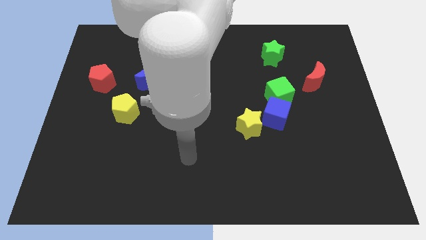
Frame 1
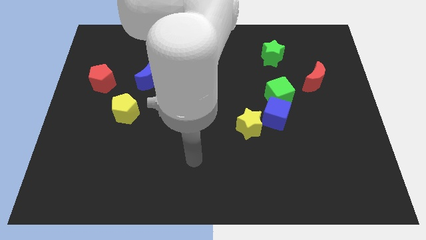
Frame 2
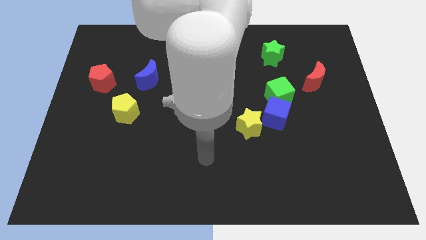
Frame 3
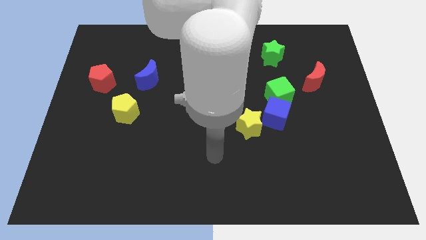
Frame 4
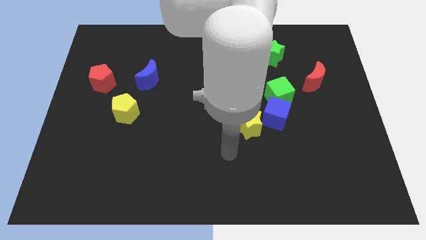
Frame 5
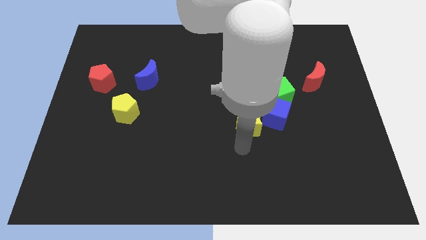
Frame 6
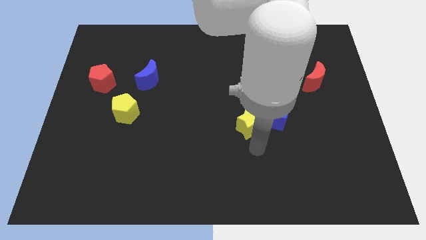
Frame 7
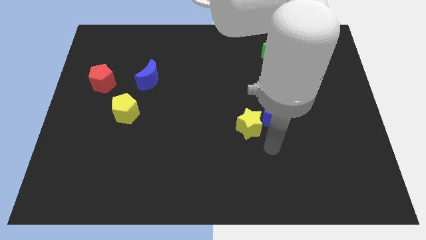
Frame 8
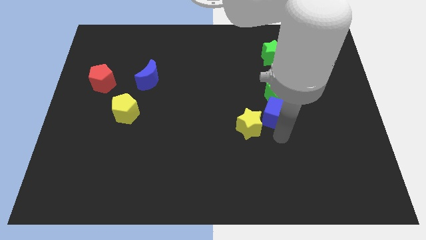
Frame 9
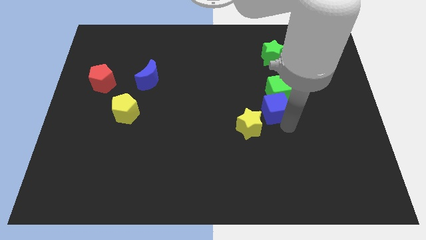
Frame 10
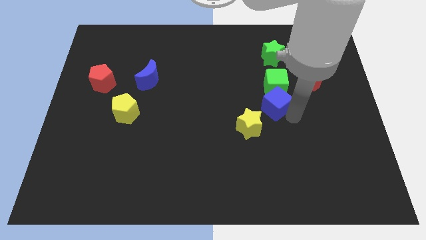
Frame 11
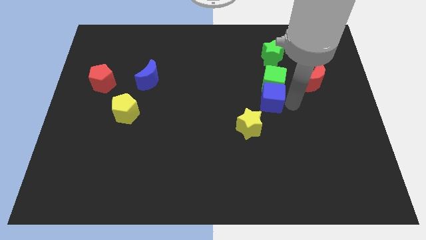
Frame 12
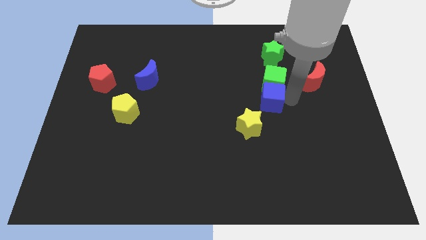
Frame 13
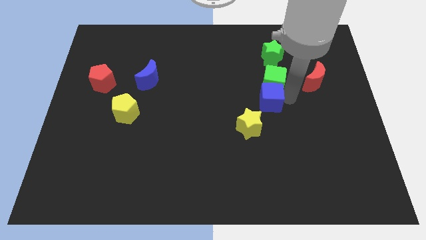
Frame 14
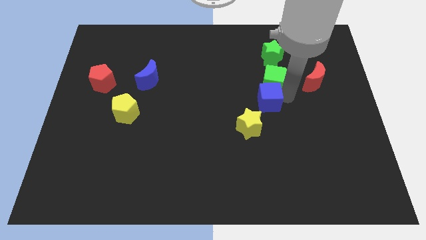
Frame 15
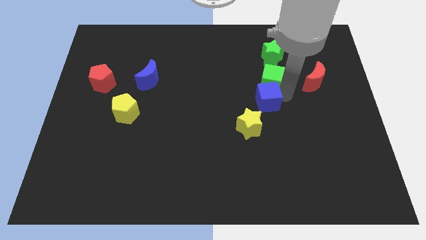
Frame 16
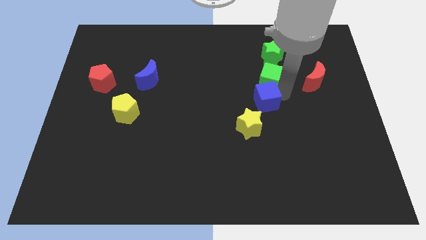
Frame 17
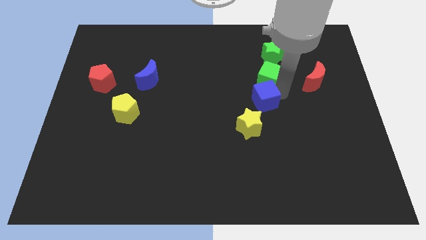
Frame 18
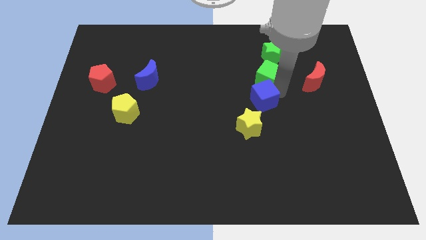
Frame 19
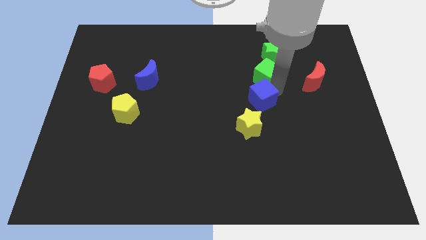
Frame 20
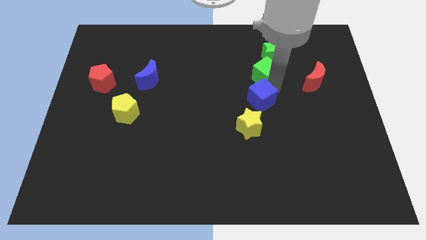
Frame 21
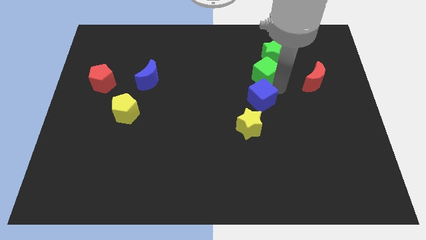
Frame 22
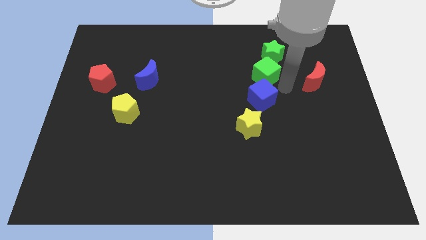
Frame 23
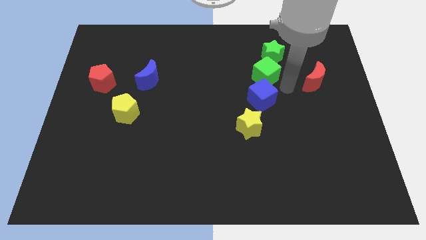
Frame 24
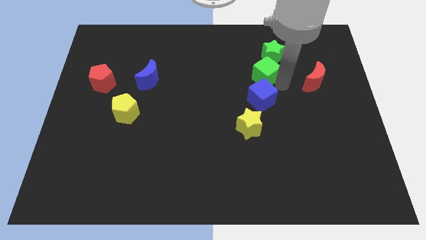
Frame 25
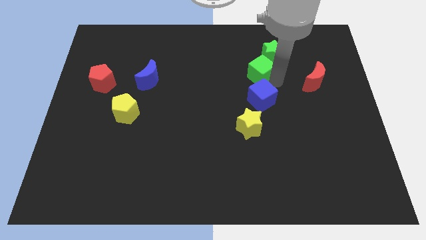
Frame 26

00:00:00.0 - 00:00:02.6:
slide the green cube a little upwards and left

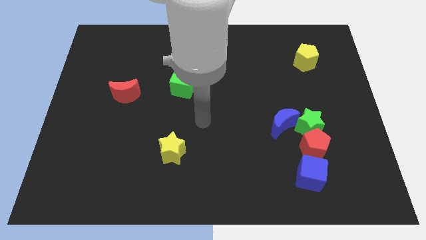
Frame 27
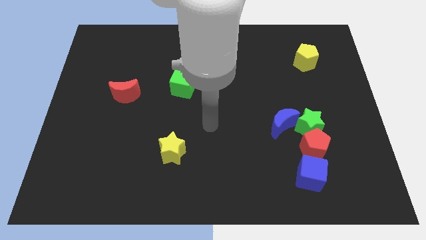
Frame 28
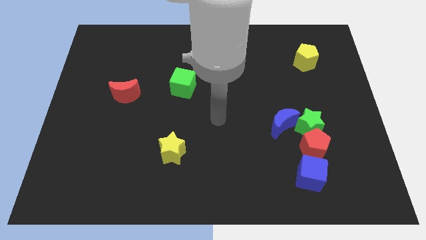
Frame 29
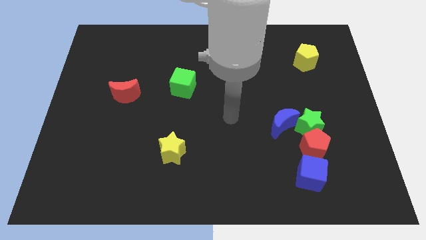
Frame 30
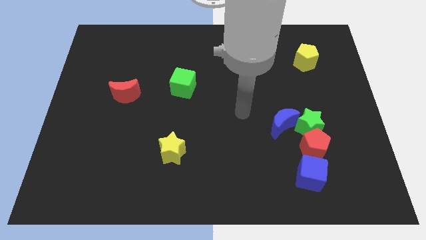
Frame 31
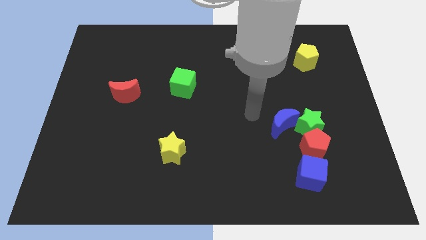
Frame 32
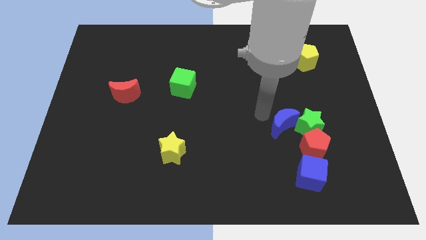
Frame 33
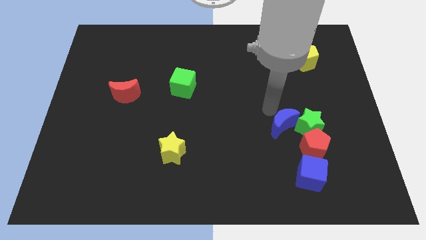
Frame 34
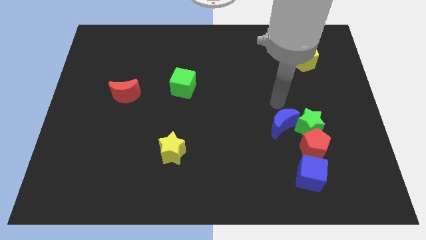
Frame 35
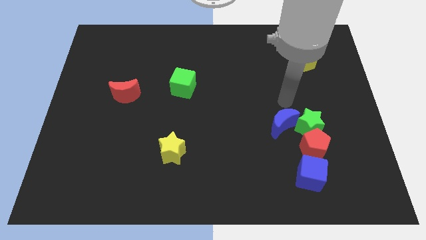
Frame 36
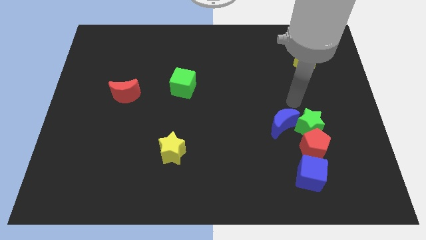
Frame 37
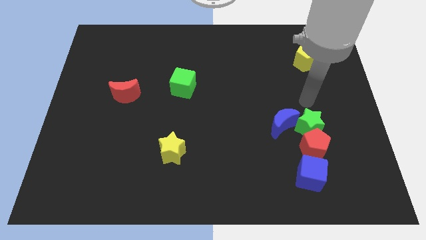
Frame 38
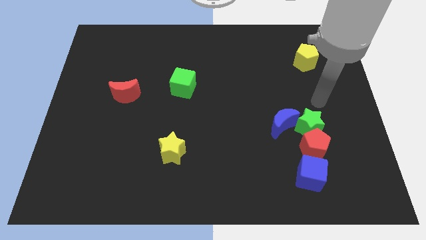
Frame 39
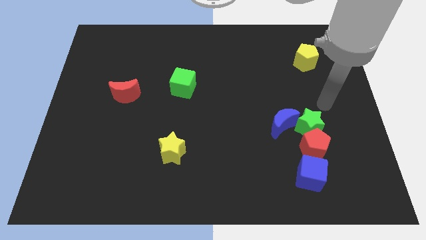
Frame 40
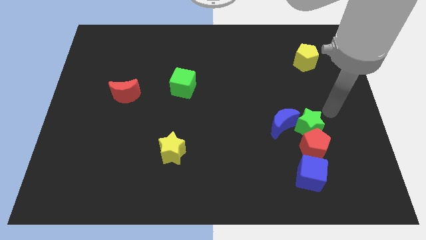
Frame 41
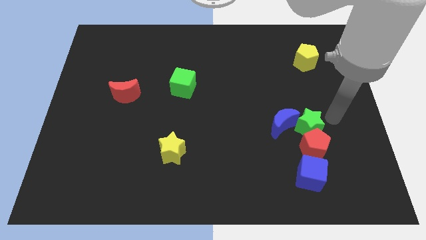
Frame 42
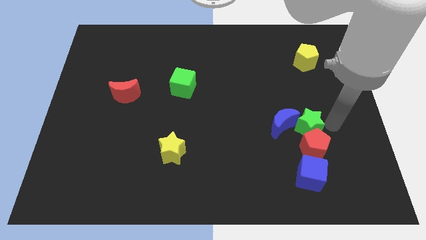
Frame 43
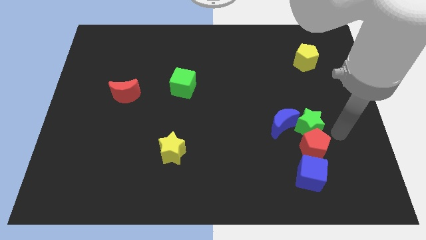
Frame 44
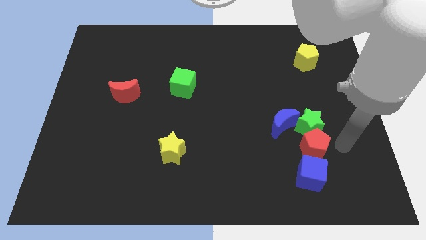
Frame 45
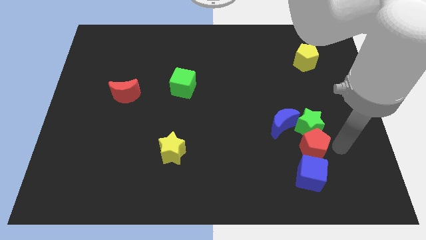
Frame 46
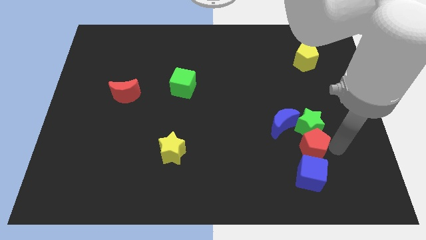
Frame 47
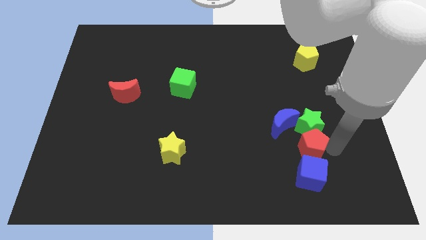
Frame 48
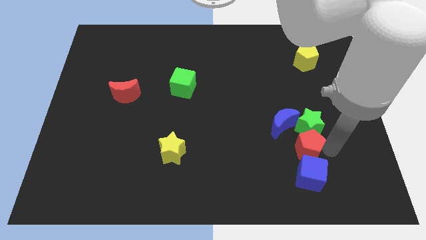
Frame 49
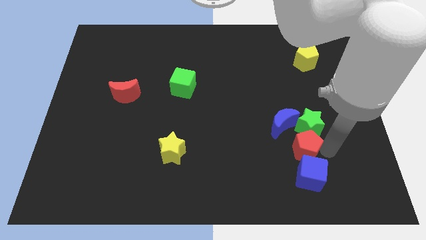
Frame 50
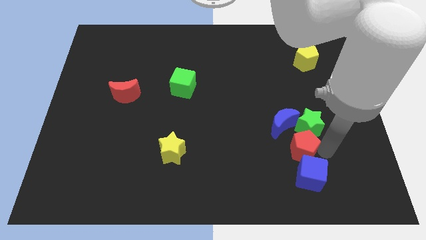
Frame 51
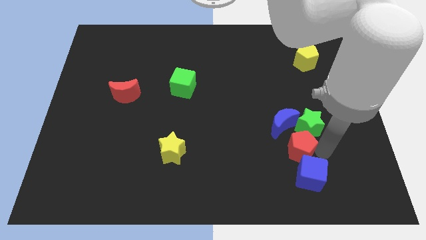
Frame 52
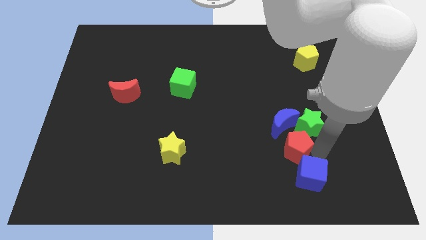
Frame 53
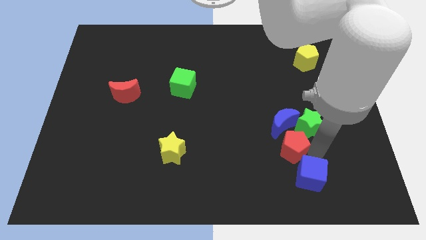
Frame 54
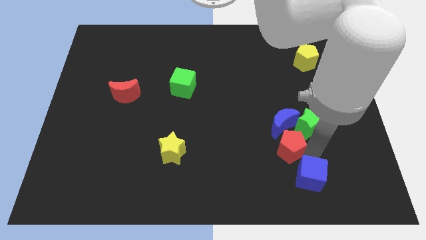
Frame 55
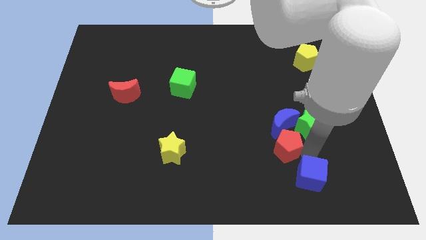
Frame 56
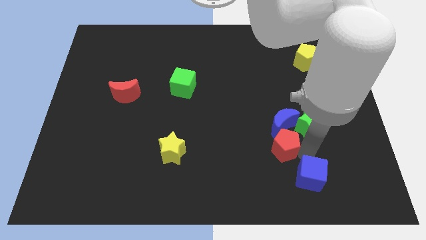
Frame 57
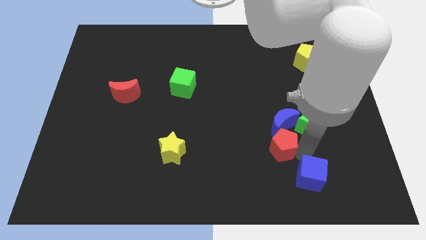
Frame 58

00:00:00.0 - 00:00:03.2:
move the red pentagon a little to the left

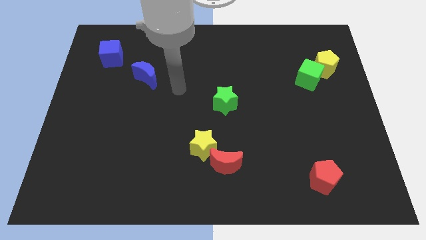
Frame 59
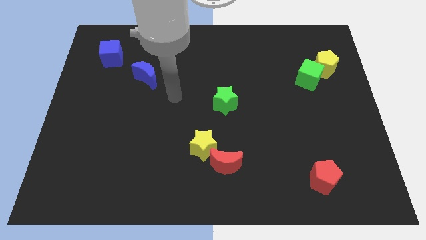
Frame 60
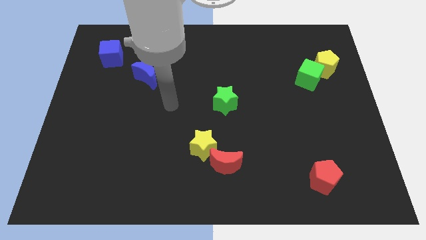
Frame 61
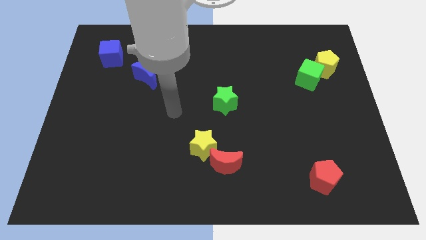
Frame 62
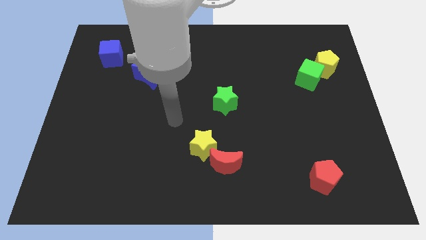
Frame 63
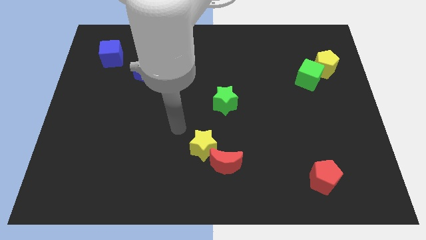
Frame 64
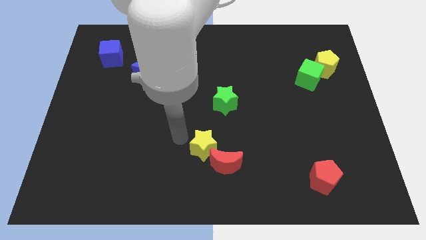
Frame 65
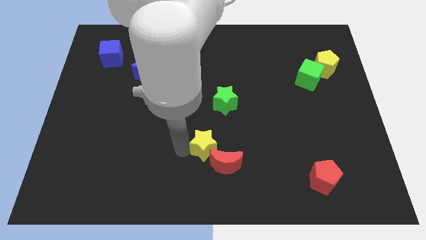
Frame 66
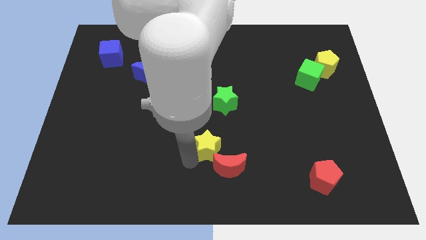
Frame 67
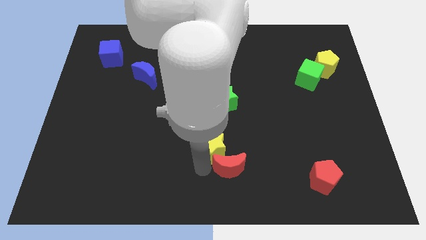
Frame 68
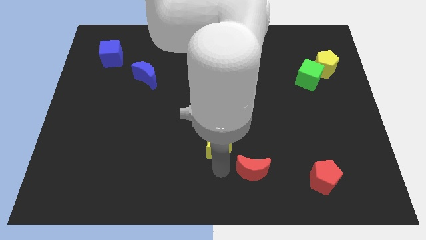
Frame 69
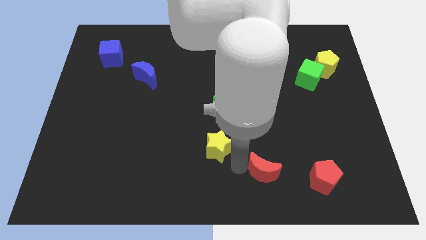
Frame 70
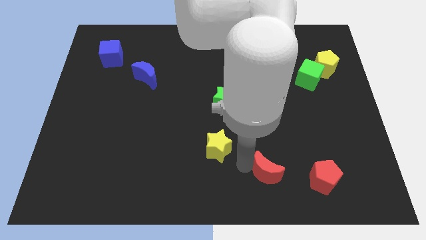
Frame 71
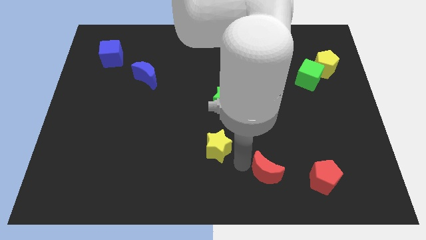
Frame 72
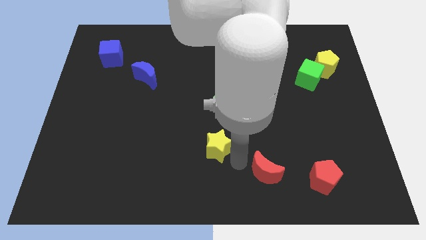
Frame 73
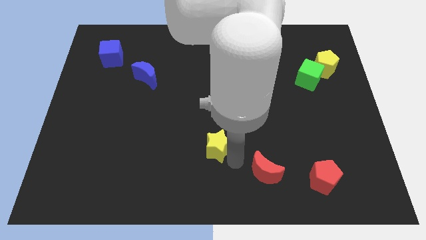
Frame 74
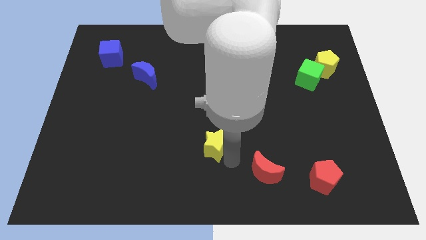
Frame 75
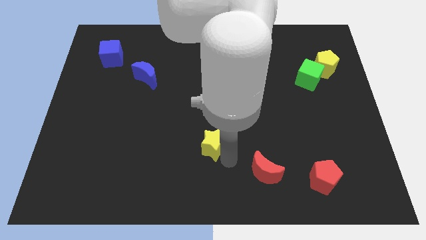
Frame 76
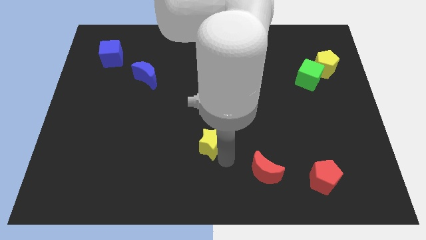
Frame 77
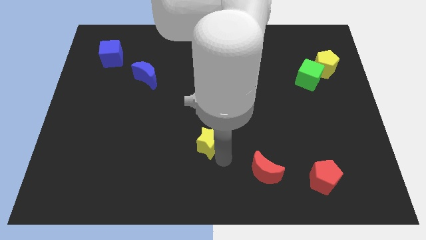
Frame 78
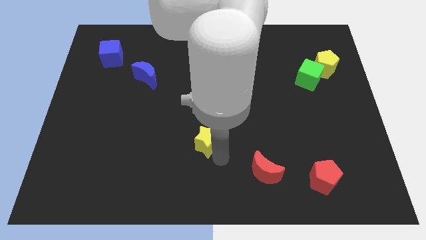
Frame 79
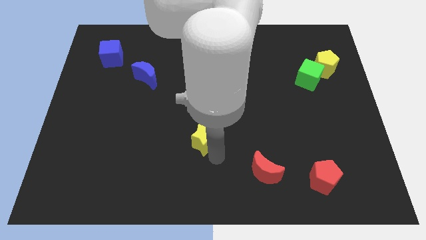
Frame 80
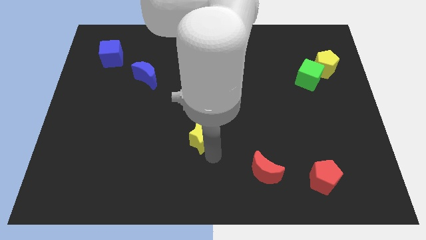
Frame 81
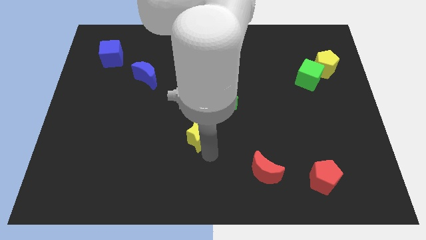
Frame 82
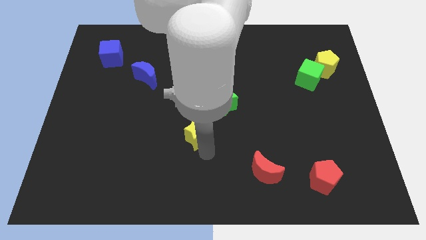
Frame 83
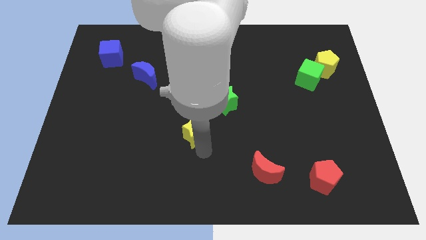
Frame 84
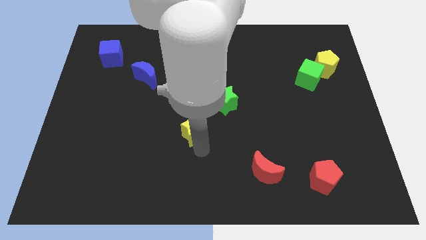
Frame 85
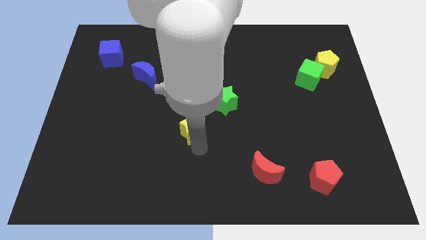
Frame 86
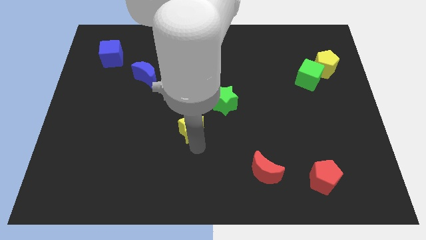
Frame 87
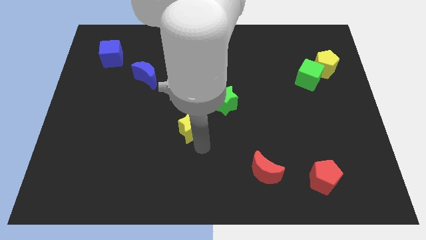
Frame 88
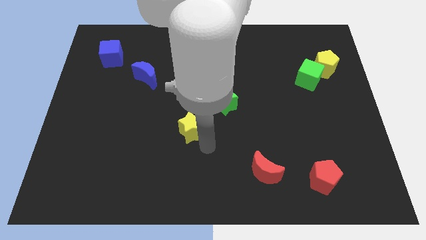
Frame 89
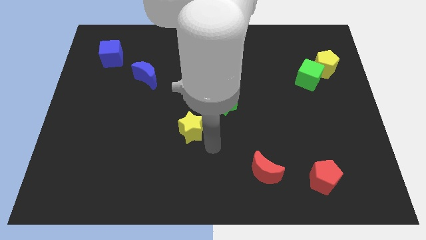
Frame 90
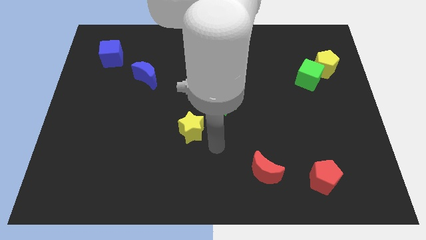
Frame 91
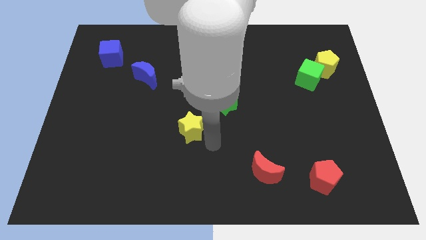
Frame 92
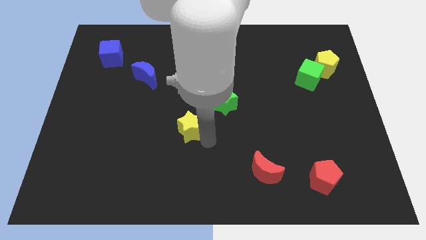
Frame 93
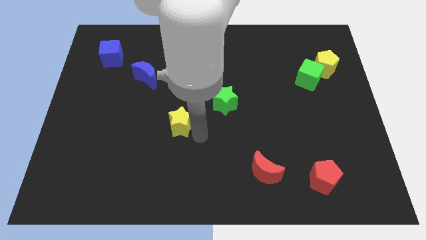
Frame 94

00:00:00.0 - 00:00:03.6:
slide the yellow star upwards and to the left a little
